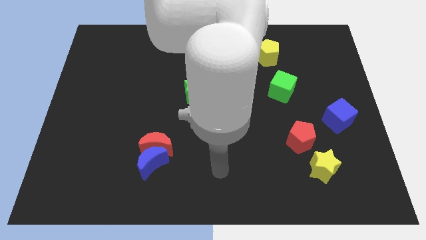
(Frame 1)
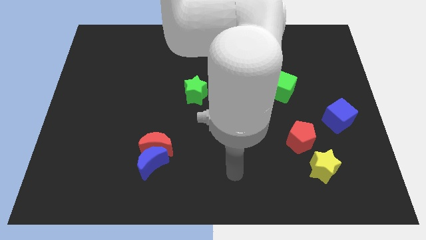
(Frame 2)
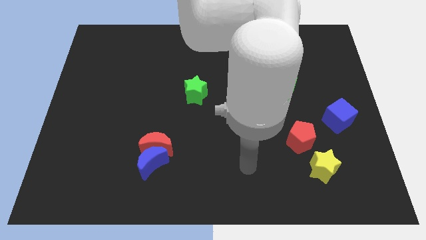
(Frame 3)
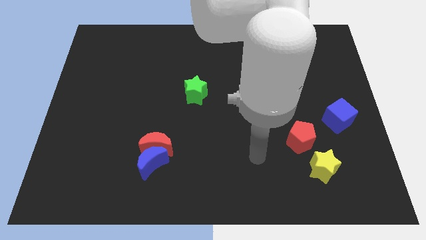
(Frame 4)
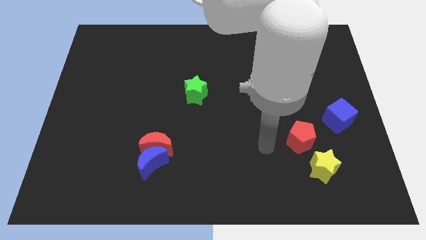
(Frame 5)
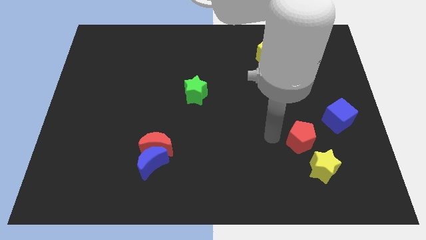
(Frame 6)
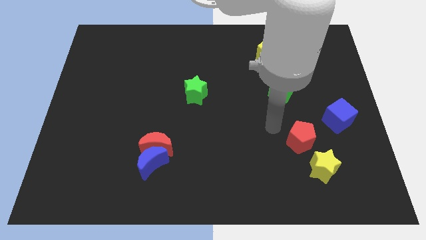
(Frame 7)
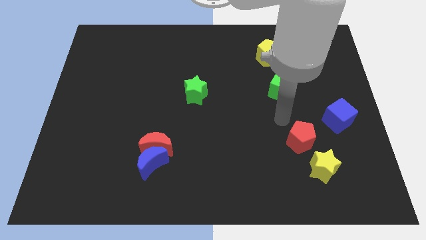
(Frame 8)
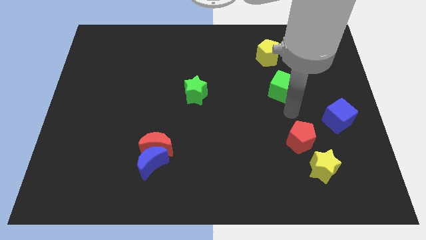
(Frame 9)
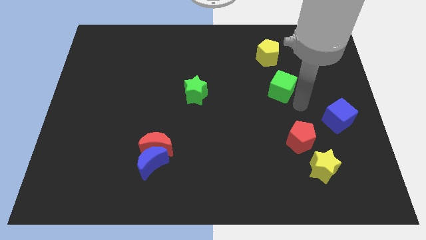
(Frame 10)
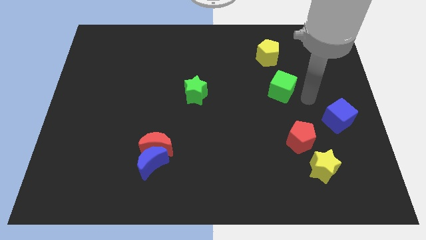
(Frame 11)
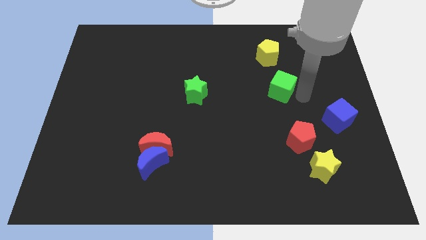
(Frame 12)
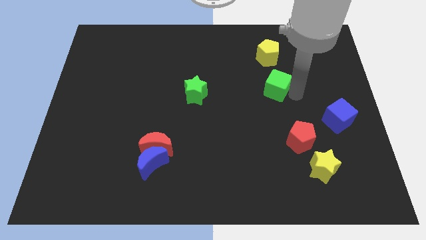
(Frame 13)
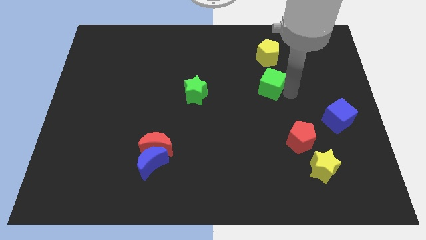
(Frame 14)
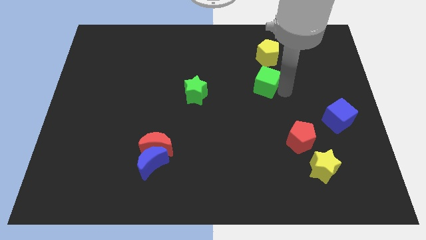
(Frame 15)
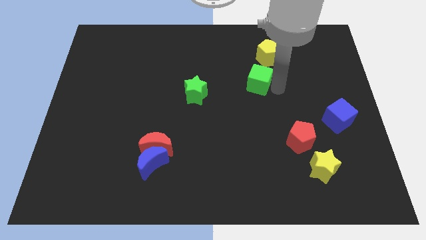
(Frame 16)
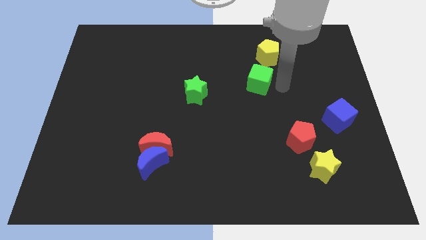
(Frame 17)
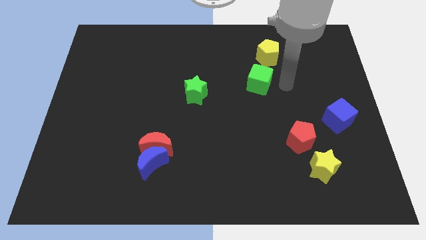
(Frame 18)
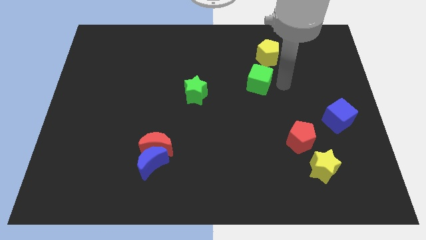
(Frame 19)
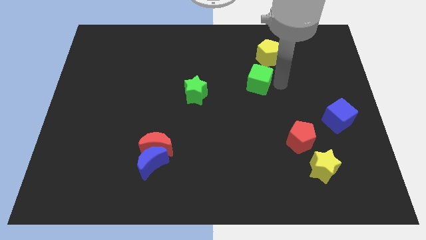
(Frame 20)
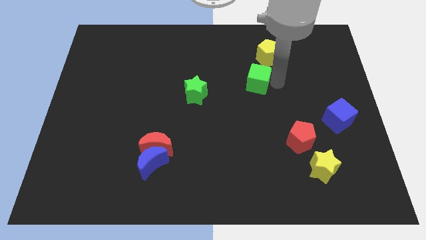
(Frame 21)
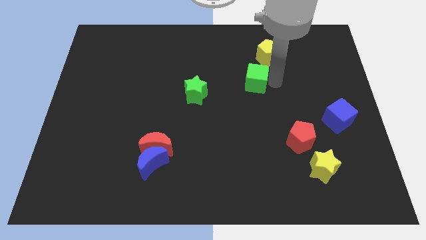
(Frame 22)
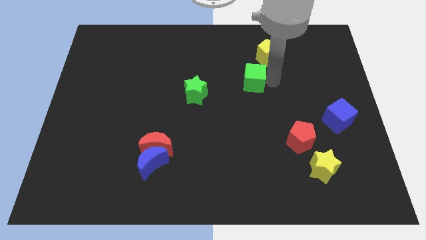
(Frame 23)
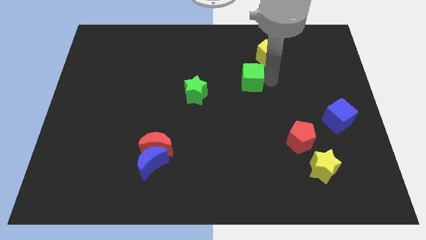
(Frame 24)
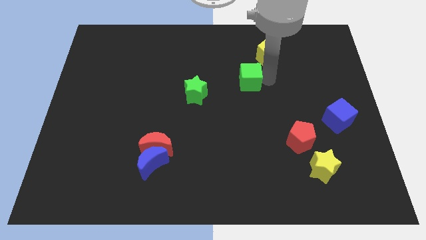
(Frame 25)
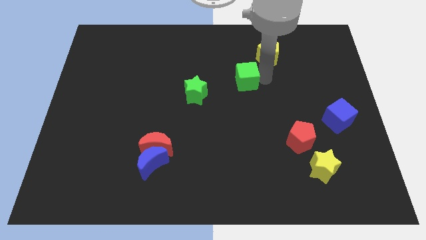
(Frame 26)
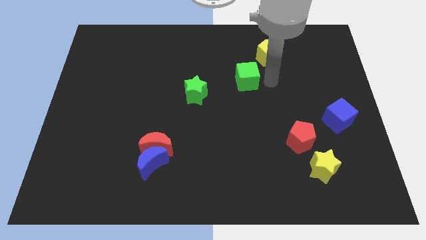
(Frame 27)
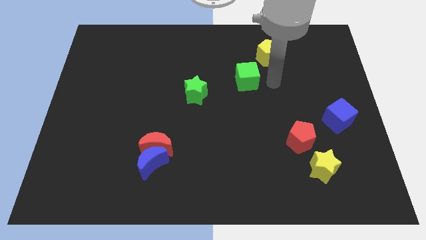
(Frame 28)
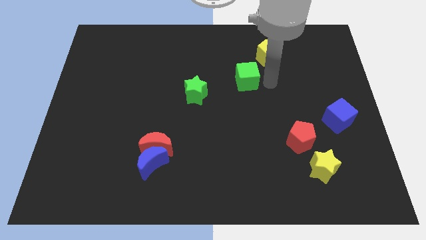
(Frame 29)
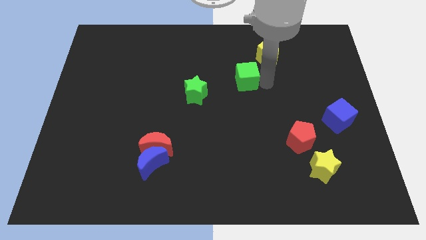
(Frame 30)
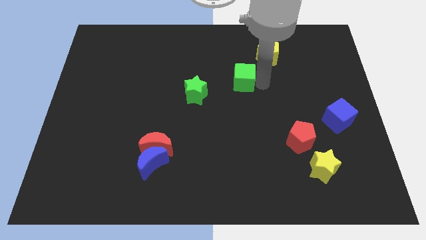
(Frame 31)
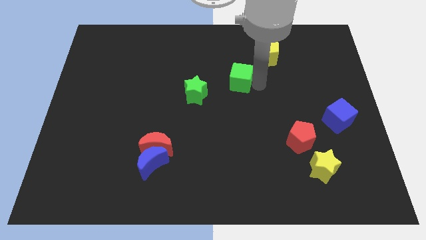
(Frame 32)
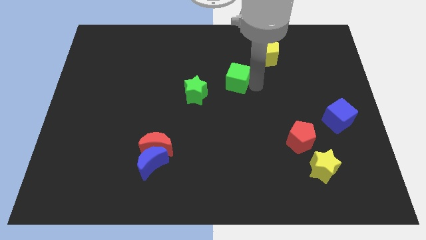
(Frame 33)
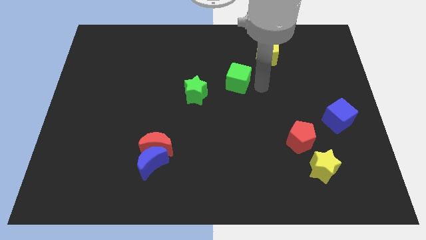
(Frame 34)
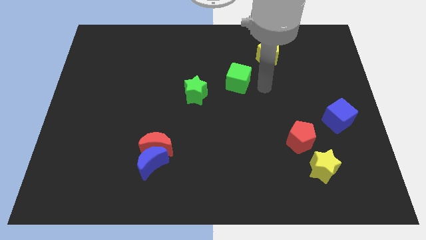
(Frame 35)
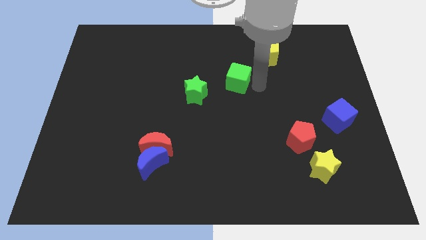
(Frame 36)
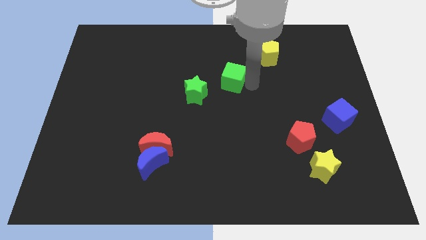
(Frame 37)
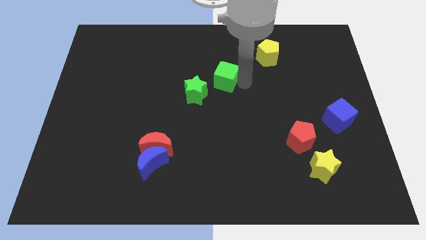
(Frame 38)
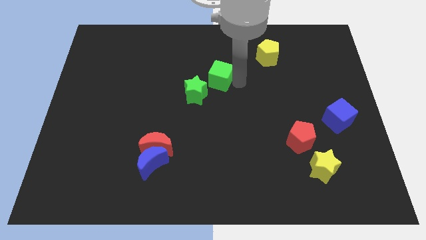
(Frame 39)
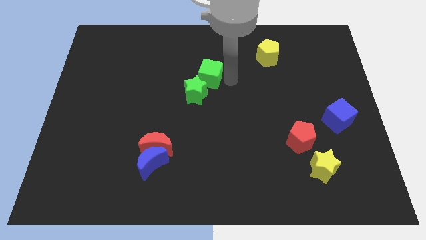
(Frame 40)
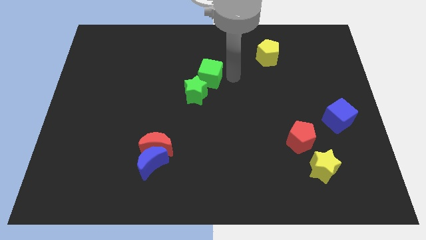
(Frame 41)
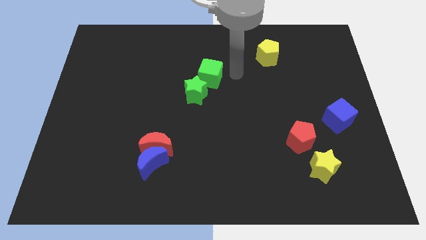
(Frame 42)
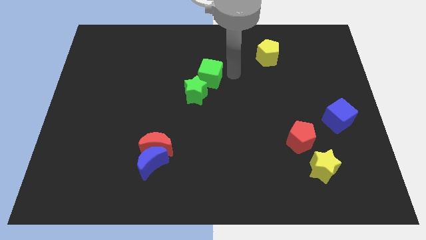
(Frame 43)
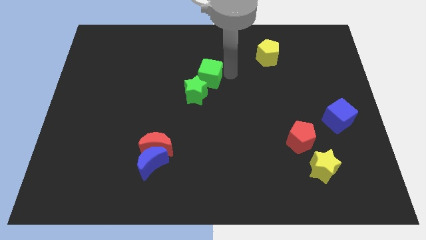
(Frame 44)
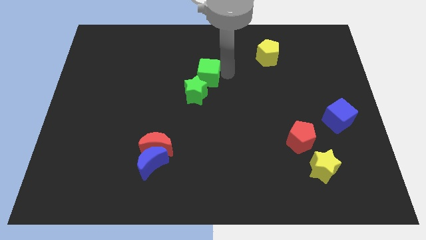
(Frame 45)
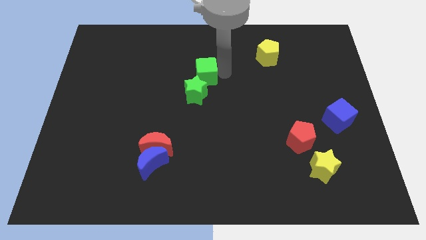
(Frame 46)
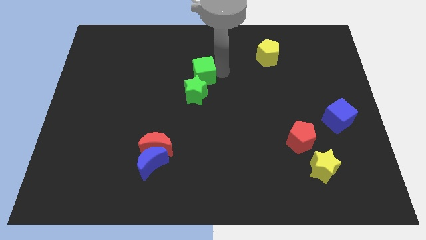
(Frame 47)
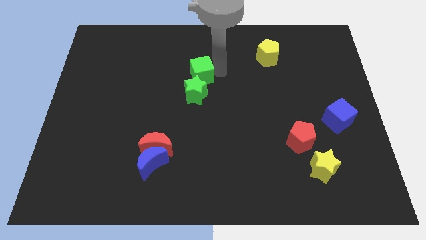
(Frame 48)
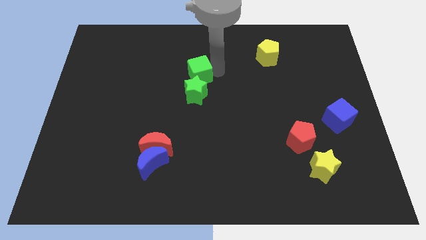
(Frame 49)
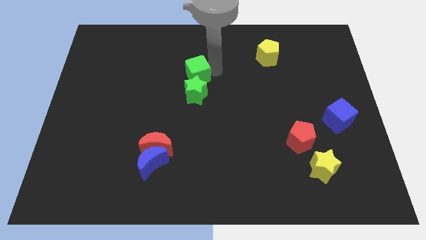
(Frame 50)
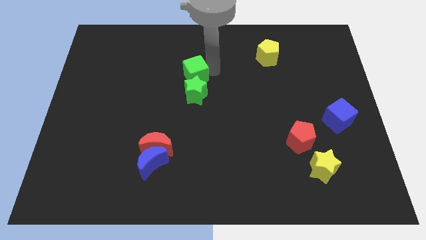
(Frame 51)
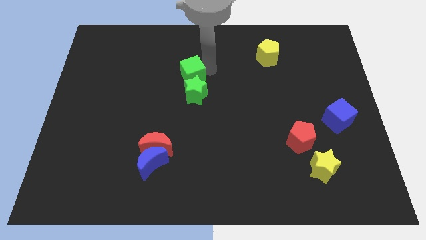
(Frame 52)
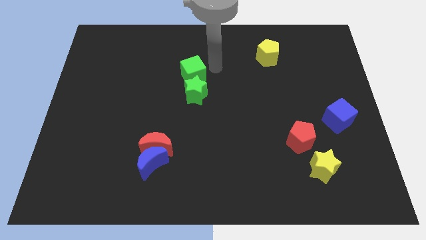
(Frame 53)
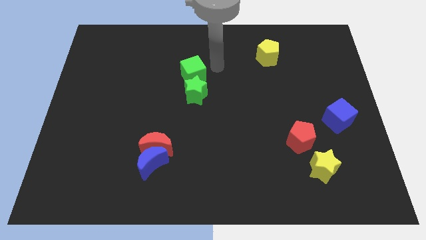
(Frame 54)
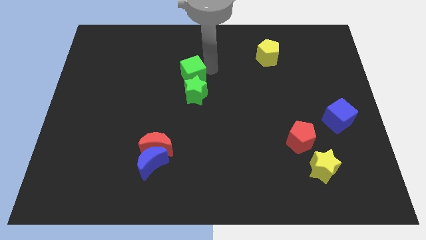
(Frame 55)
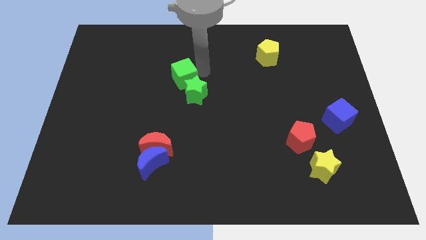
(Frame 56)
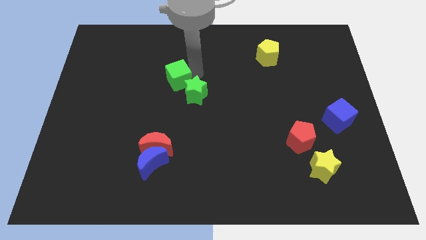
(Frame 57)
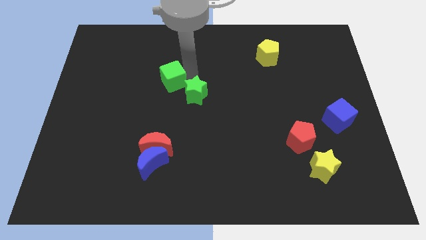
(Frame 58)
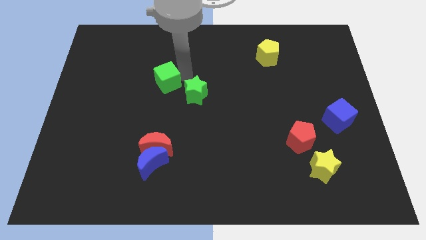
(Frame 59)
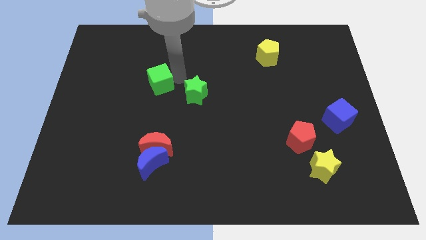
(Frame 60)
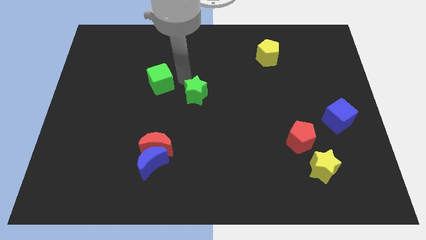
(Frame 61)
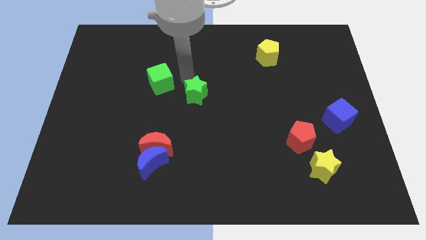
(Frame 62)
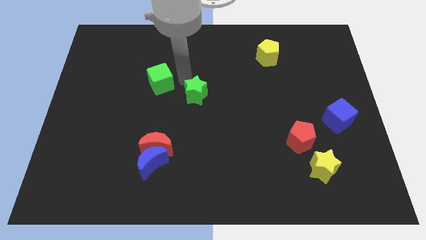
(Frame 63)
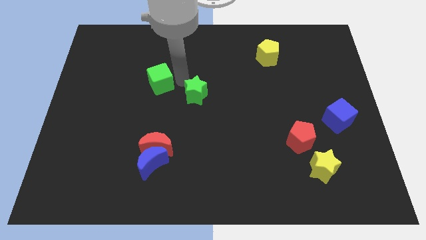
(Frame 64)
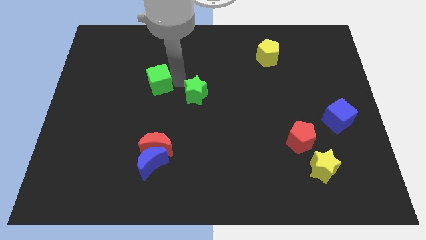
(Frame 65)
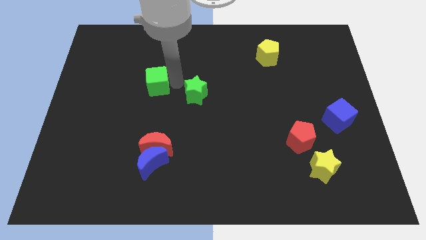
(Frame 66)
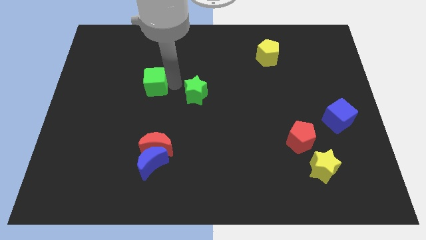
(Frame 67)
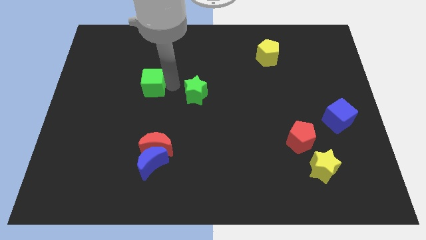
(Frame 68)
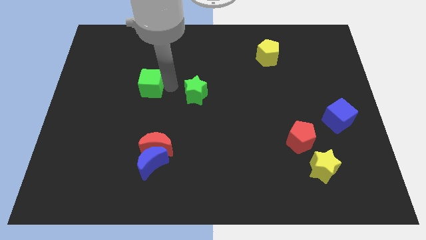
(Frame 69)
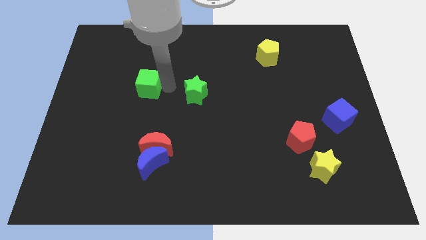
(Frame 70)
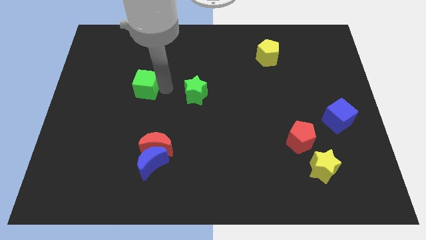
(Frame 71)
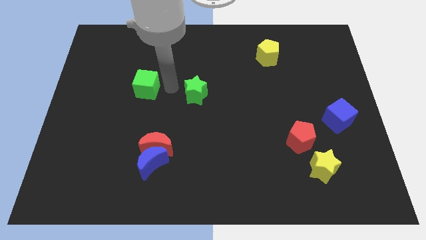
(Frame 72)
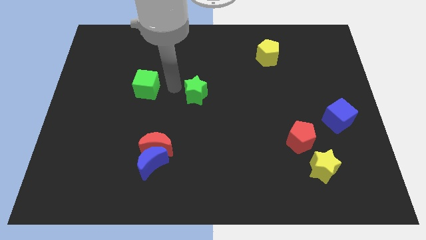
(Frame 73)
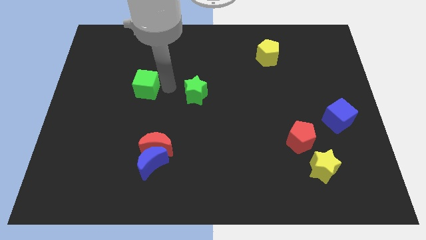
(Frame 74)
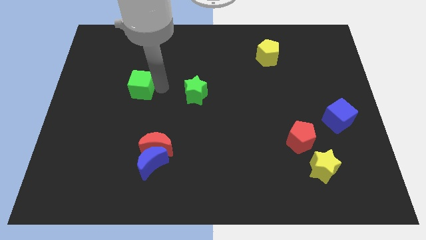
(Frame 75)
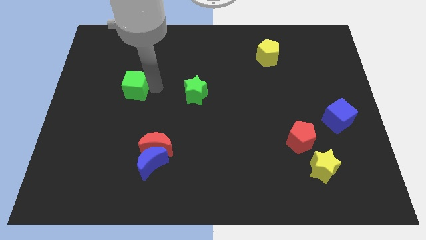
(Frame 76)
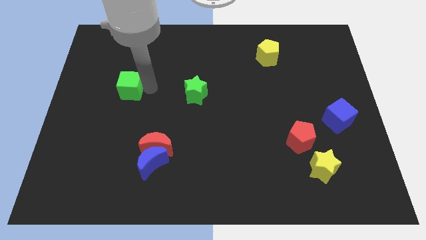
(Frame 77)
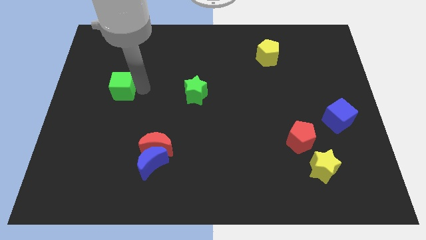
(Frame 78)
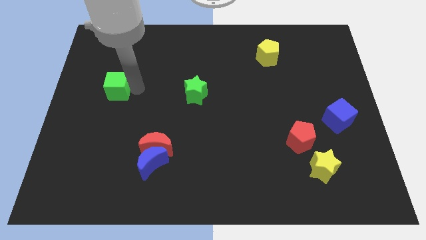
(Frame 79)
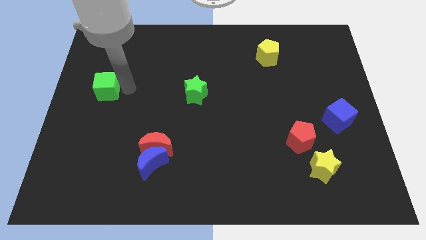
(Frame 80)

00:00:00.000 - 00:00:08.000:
push the green cube to the left side of the board
